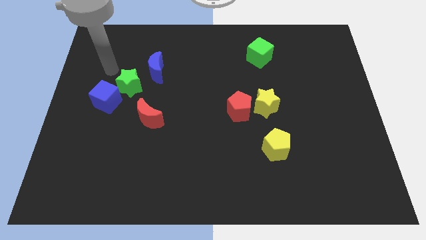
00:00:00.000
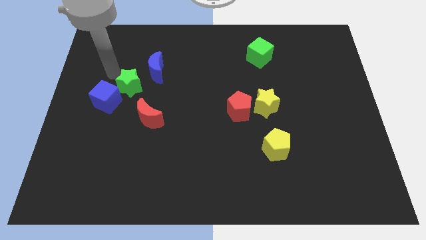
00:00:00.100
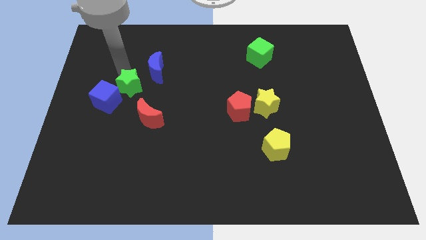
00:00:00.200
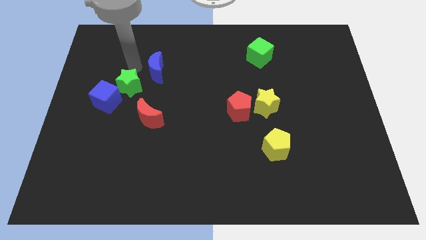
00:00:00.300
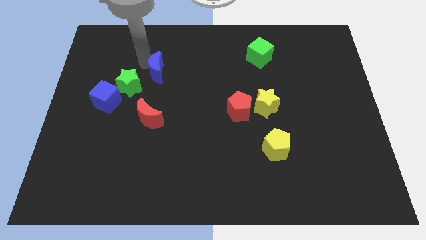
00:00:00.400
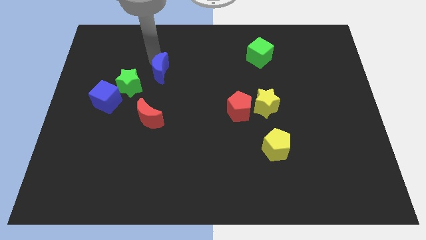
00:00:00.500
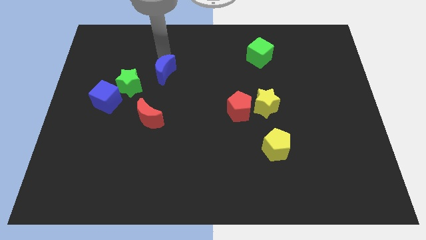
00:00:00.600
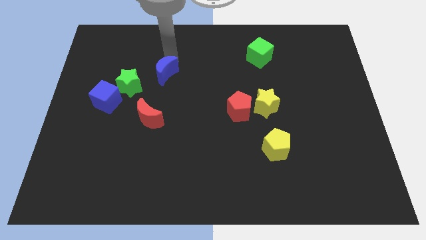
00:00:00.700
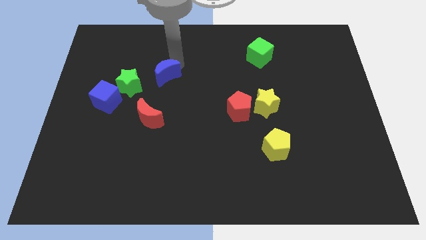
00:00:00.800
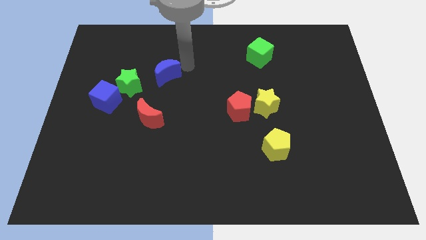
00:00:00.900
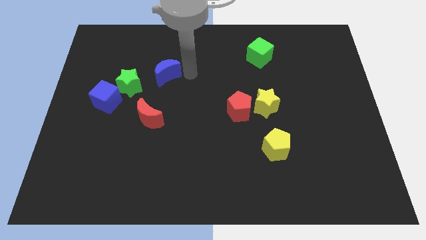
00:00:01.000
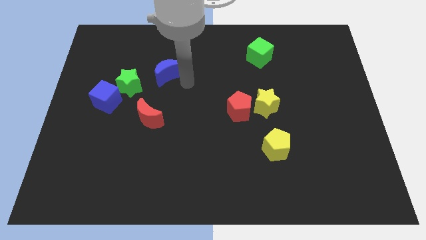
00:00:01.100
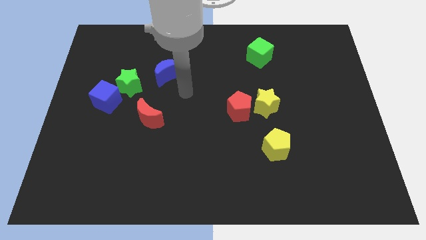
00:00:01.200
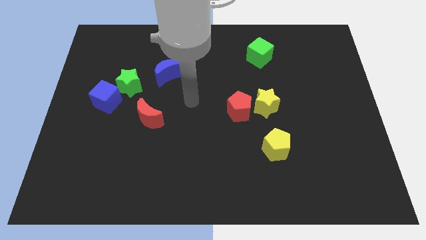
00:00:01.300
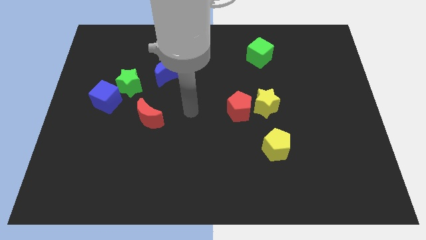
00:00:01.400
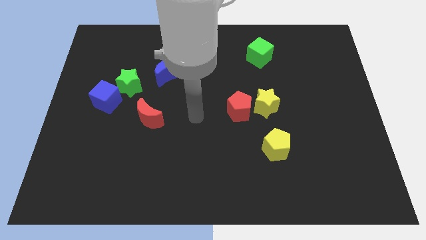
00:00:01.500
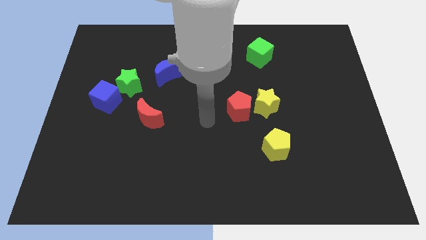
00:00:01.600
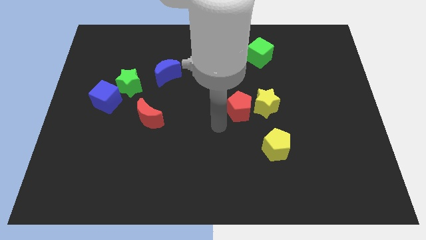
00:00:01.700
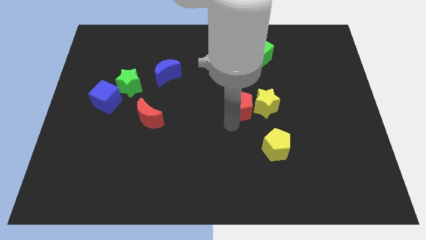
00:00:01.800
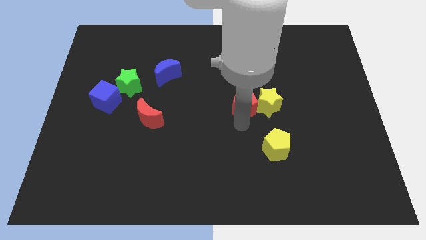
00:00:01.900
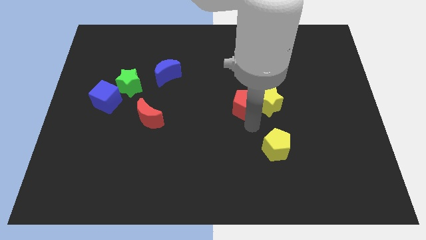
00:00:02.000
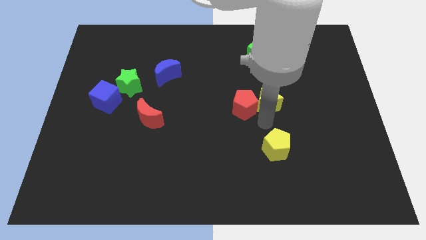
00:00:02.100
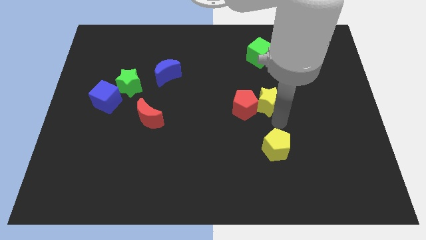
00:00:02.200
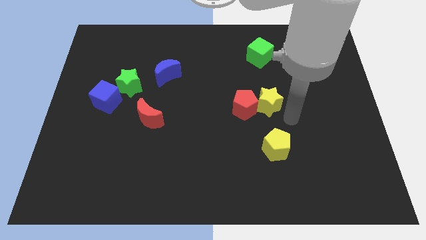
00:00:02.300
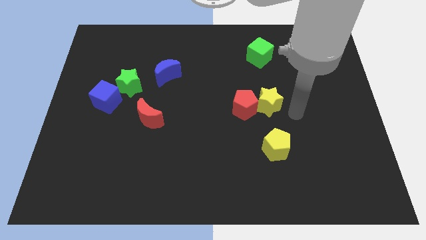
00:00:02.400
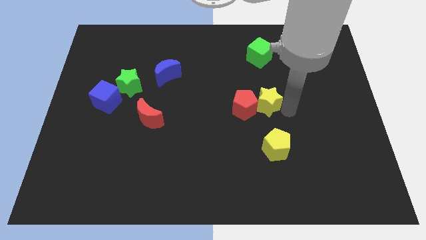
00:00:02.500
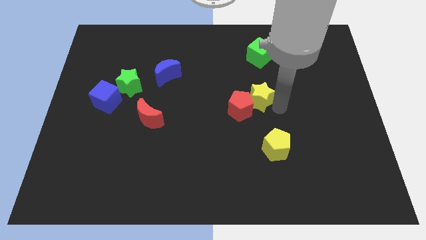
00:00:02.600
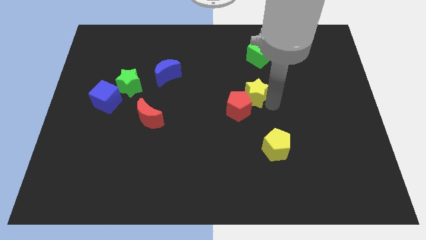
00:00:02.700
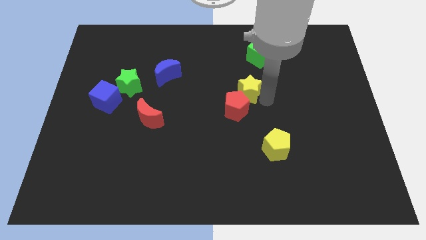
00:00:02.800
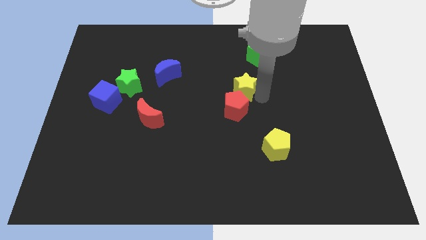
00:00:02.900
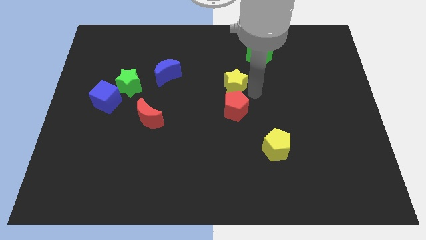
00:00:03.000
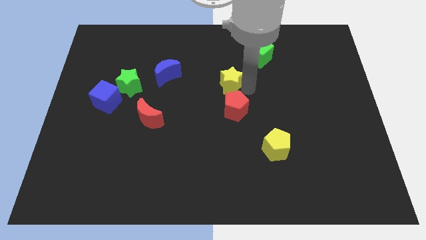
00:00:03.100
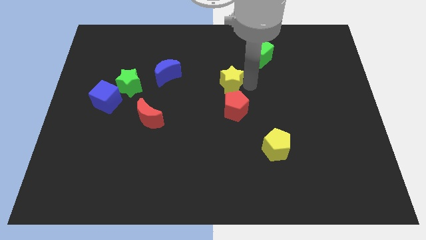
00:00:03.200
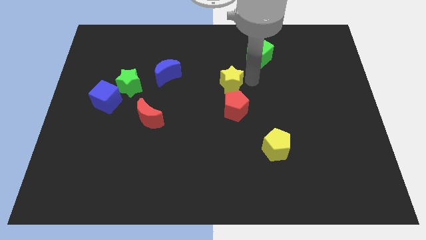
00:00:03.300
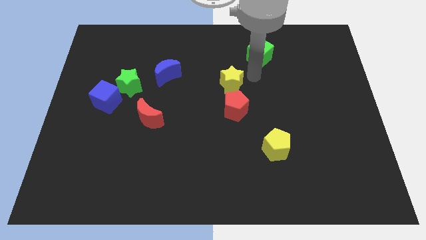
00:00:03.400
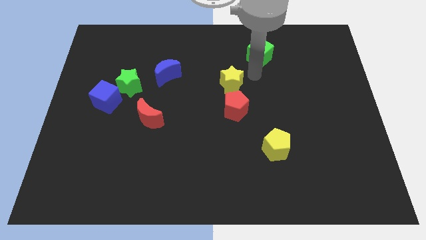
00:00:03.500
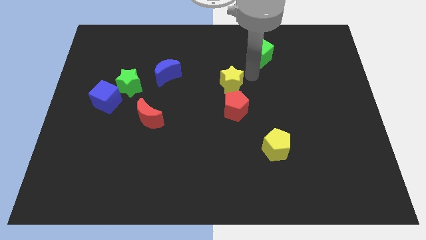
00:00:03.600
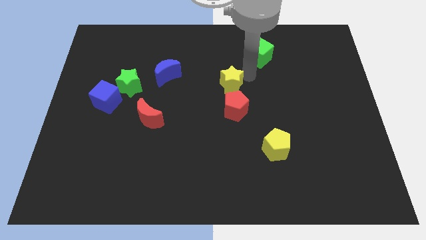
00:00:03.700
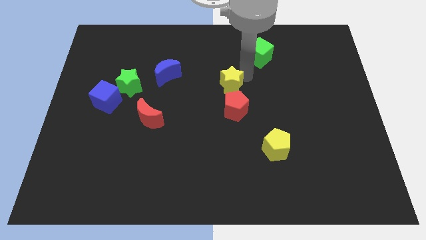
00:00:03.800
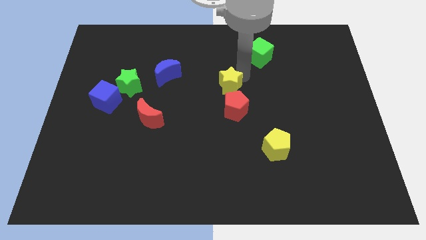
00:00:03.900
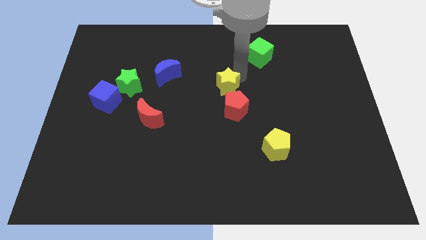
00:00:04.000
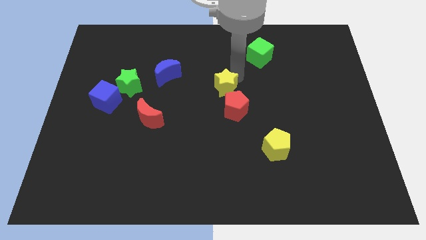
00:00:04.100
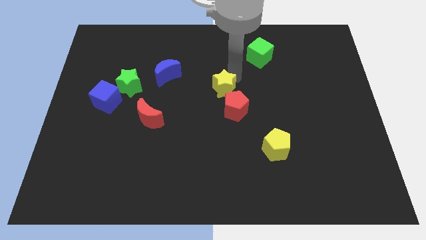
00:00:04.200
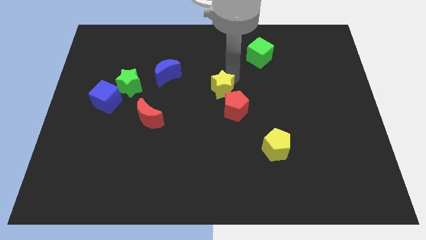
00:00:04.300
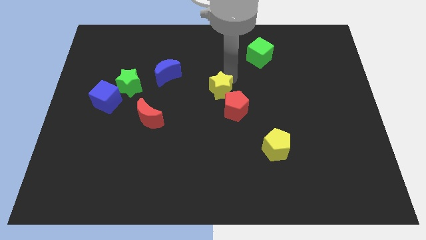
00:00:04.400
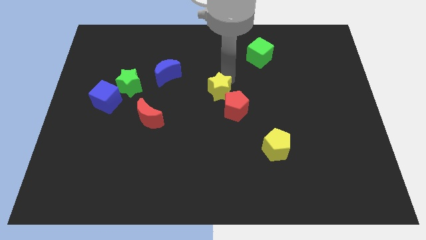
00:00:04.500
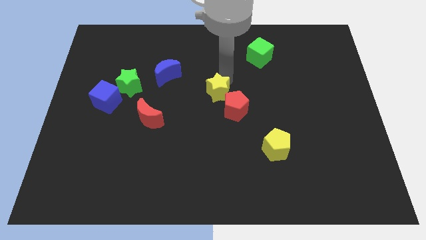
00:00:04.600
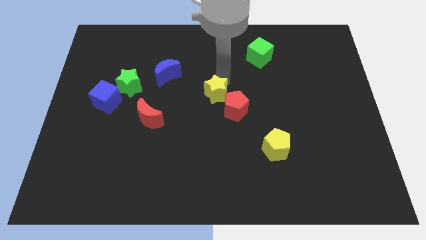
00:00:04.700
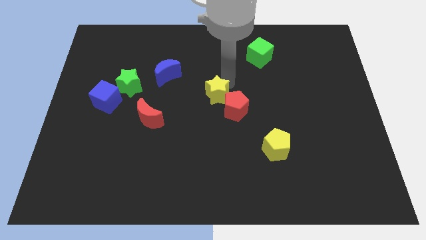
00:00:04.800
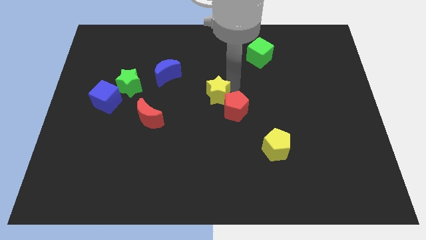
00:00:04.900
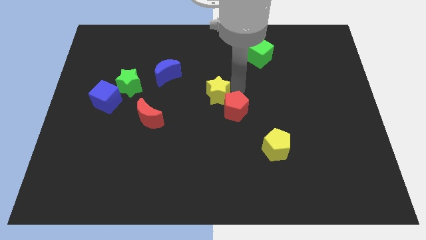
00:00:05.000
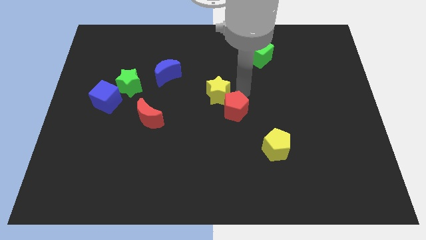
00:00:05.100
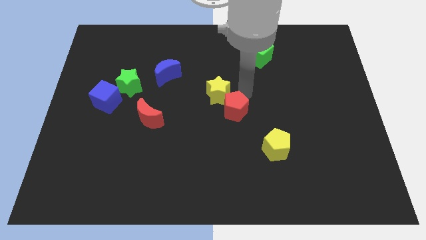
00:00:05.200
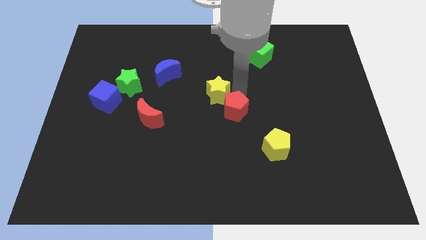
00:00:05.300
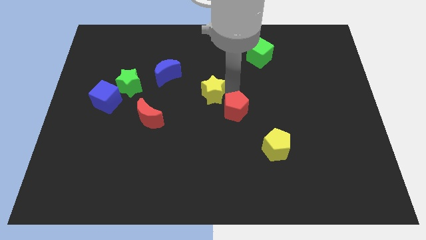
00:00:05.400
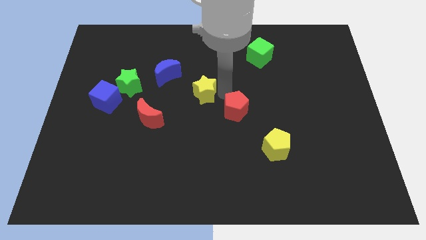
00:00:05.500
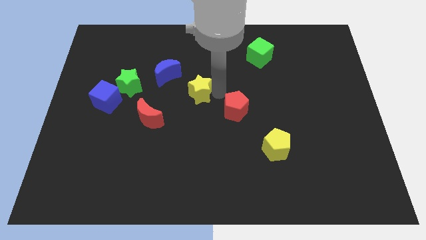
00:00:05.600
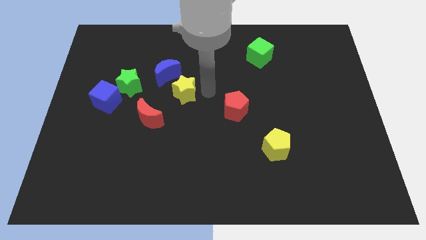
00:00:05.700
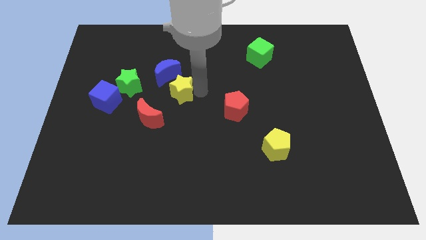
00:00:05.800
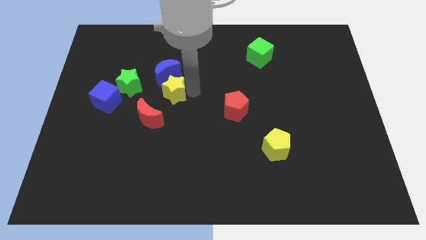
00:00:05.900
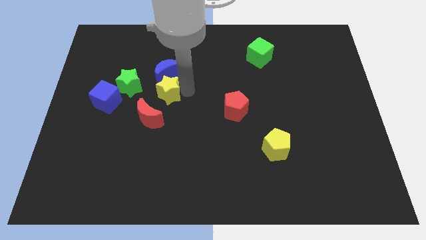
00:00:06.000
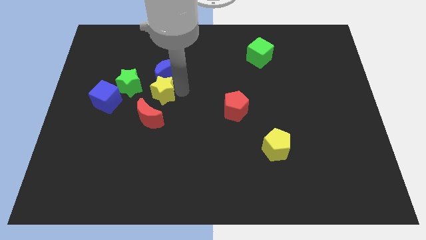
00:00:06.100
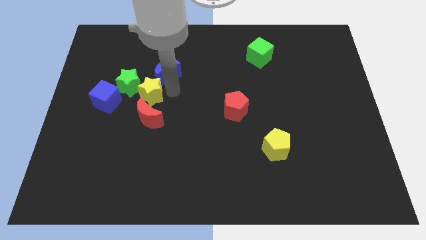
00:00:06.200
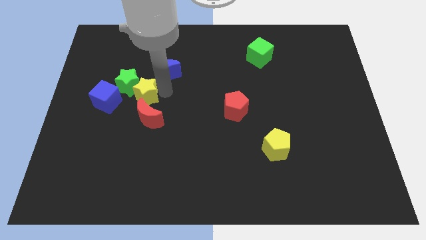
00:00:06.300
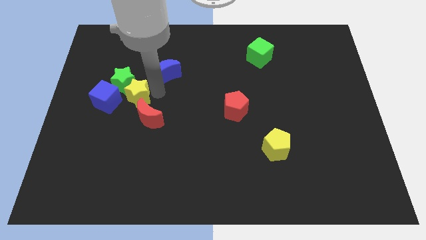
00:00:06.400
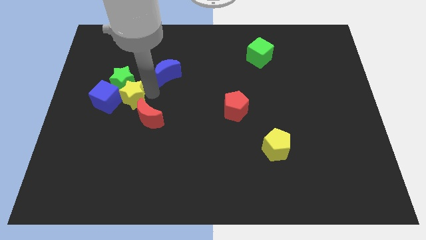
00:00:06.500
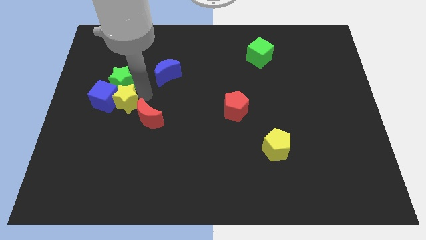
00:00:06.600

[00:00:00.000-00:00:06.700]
slide the yellow star towards the blue cube
